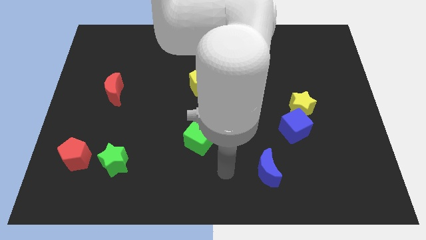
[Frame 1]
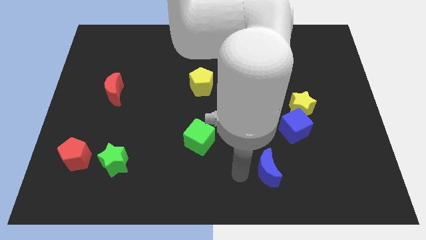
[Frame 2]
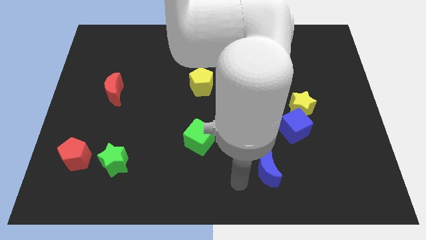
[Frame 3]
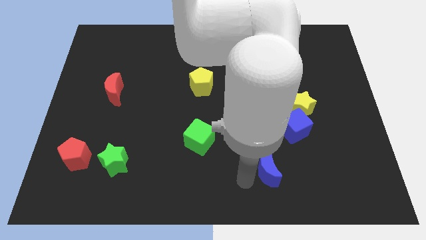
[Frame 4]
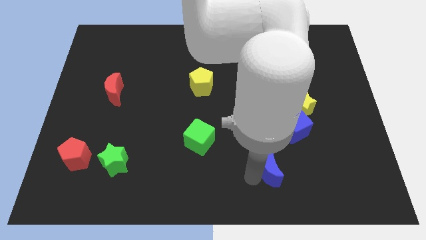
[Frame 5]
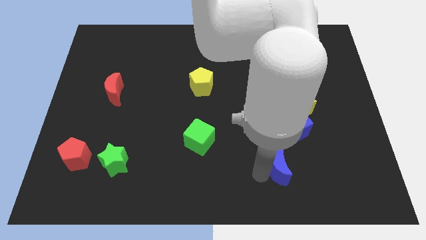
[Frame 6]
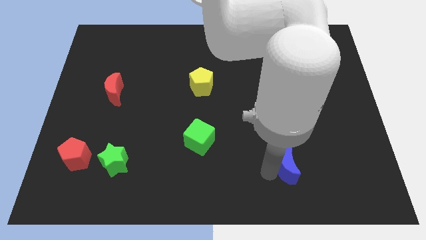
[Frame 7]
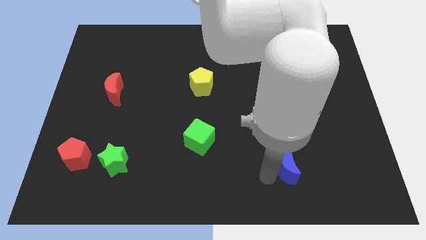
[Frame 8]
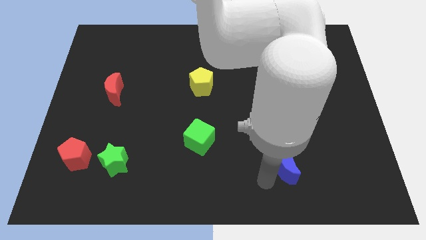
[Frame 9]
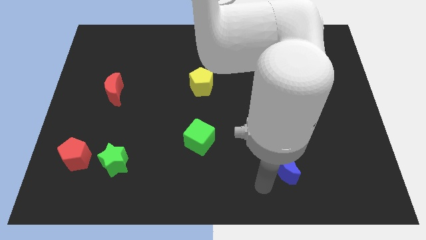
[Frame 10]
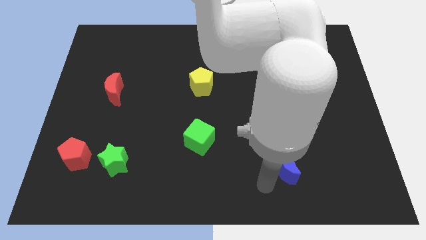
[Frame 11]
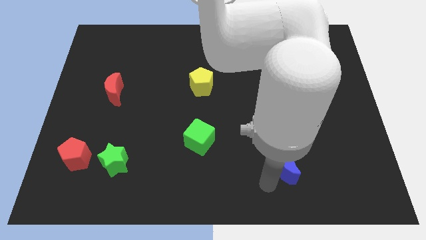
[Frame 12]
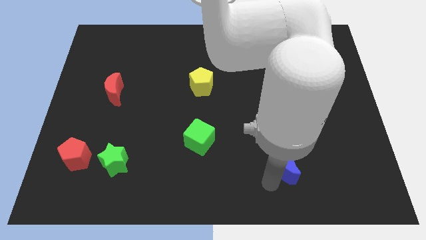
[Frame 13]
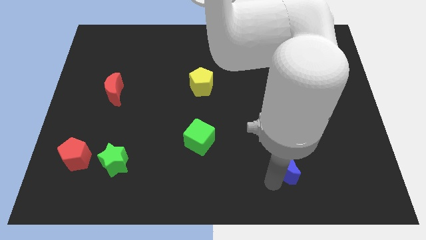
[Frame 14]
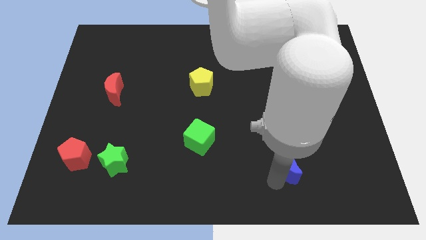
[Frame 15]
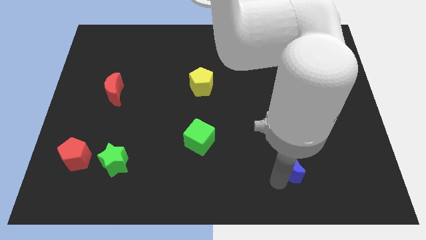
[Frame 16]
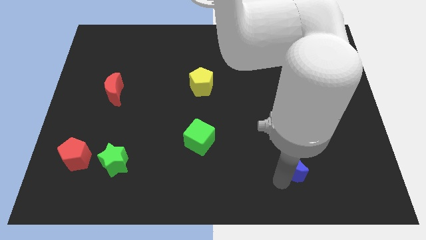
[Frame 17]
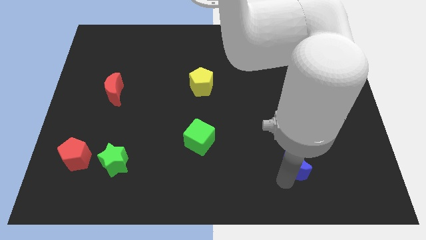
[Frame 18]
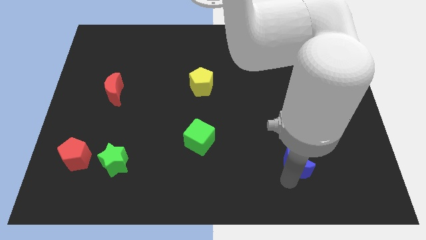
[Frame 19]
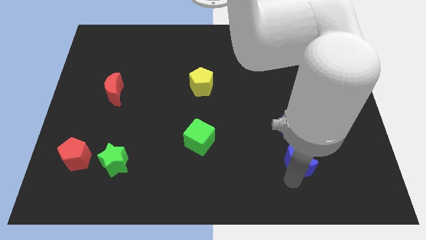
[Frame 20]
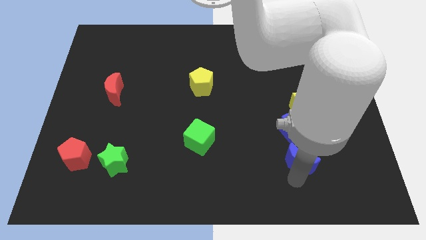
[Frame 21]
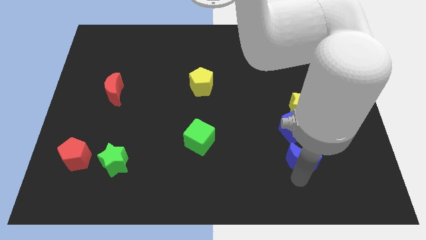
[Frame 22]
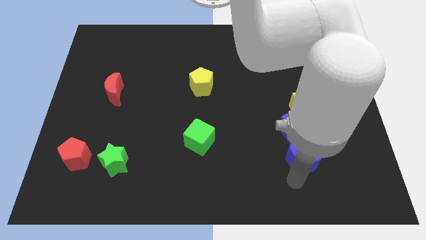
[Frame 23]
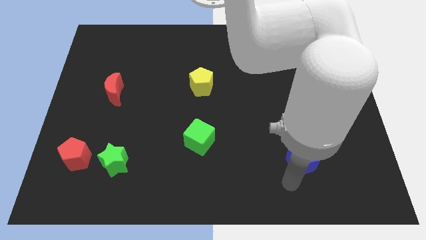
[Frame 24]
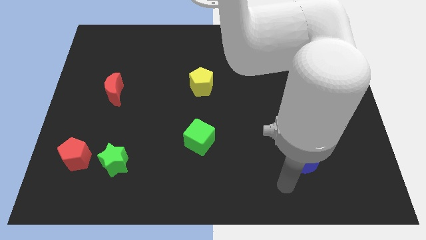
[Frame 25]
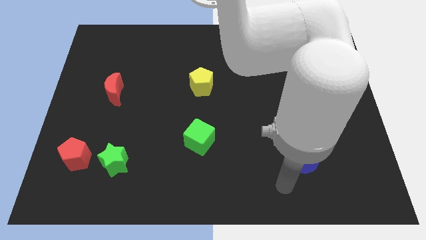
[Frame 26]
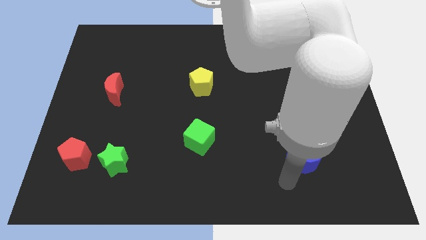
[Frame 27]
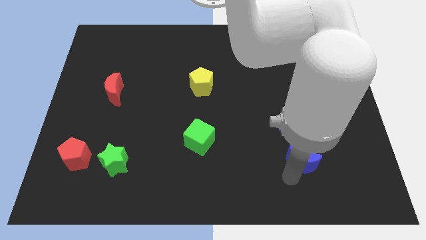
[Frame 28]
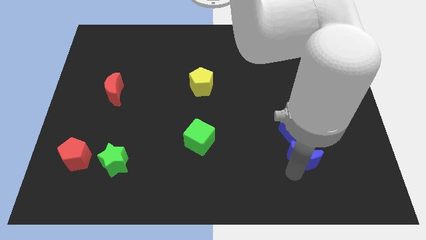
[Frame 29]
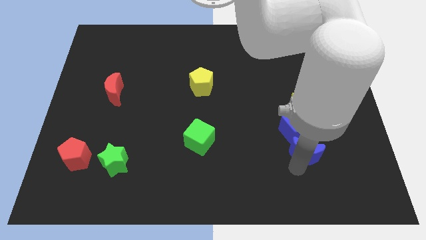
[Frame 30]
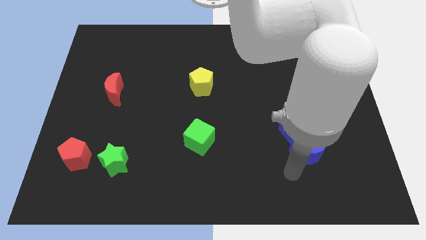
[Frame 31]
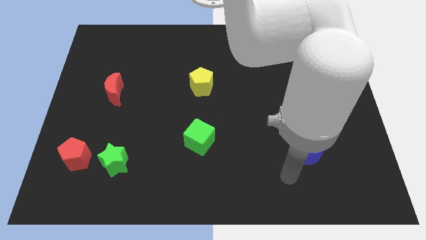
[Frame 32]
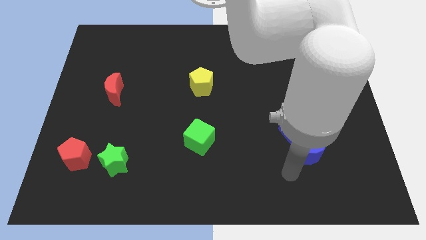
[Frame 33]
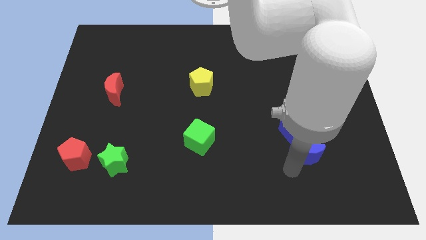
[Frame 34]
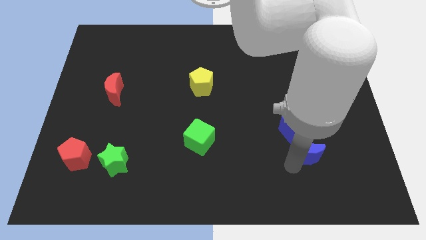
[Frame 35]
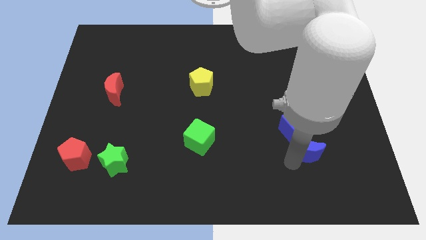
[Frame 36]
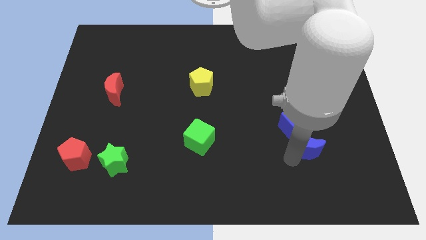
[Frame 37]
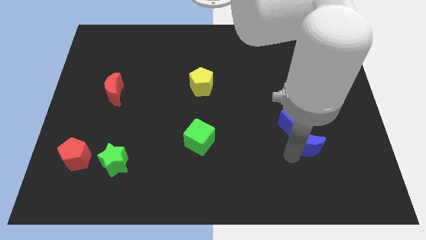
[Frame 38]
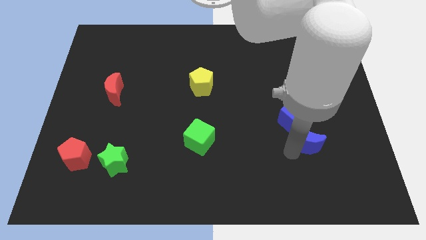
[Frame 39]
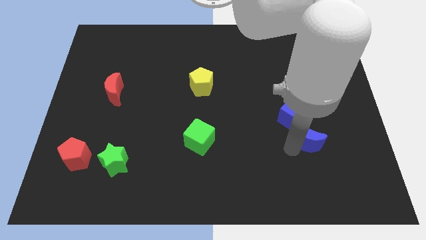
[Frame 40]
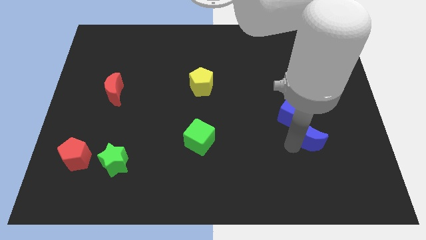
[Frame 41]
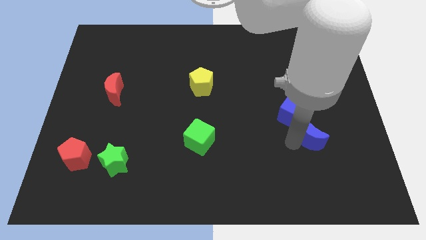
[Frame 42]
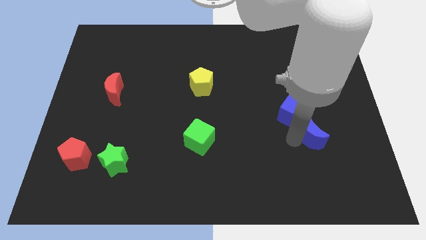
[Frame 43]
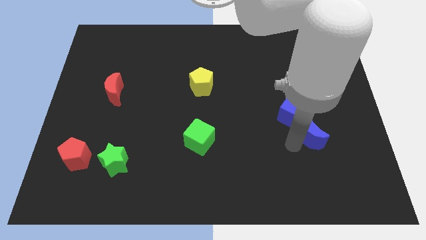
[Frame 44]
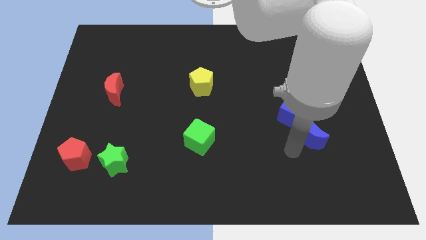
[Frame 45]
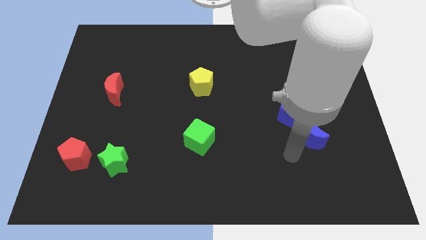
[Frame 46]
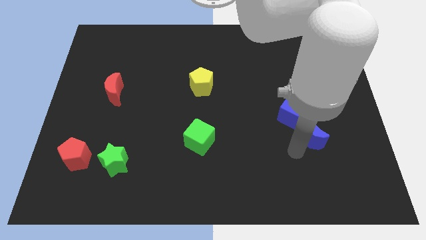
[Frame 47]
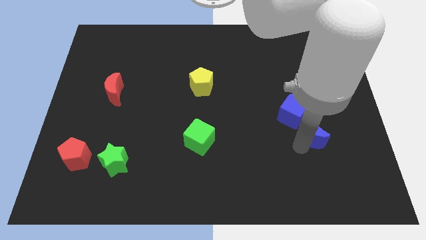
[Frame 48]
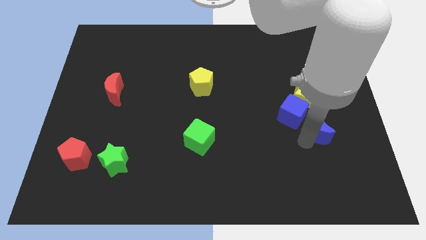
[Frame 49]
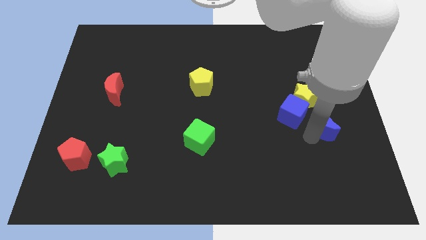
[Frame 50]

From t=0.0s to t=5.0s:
move the blue moon diagonally down and to the right of the yellow star

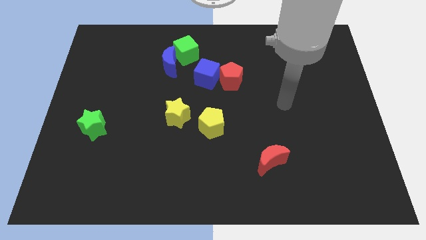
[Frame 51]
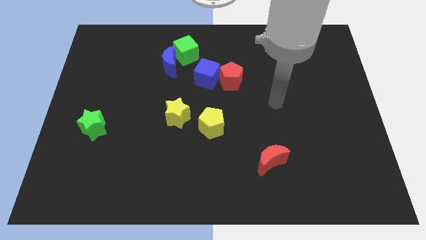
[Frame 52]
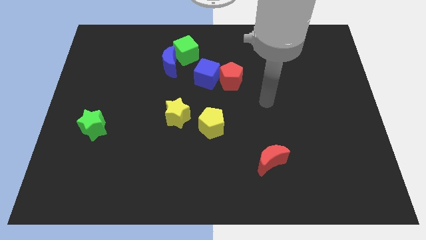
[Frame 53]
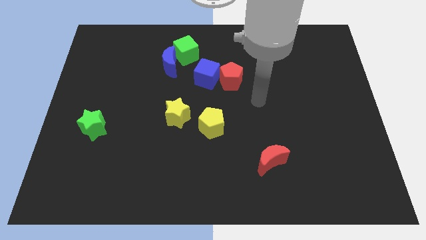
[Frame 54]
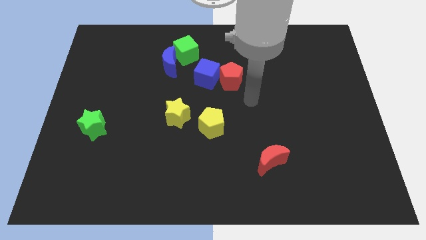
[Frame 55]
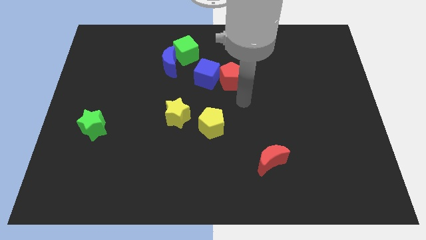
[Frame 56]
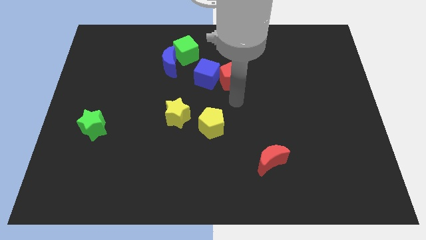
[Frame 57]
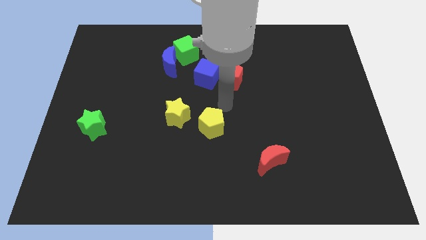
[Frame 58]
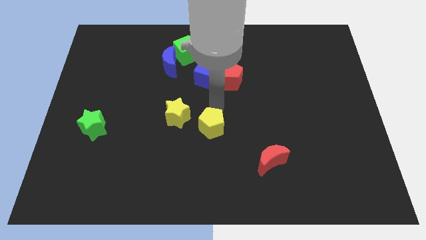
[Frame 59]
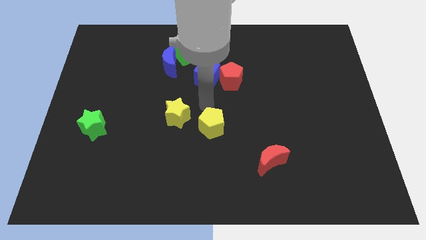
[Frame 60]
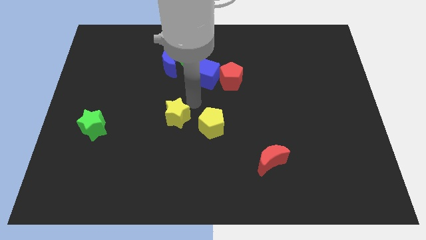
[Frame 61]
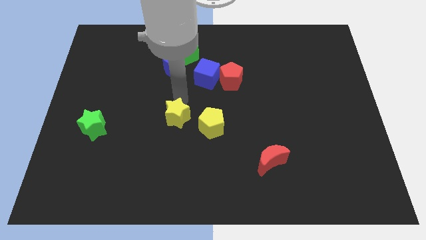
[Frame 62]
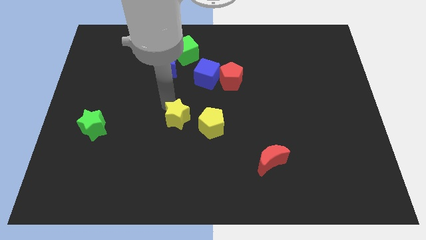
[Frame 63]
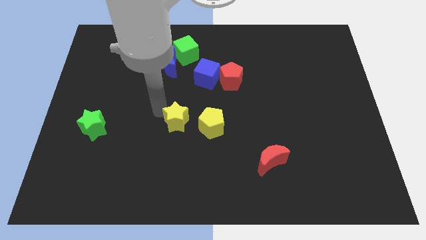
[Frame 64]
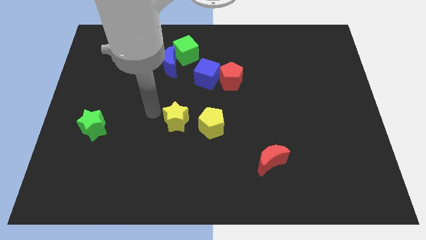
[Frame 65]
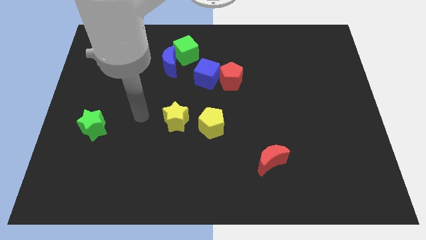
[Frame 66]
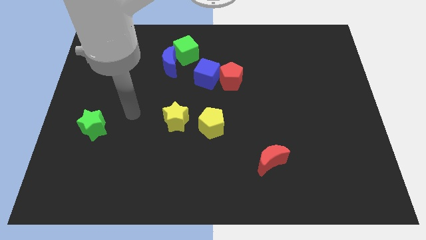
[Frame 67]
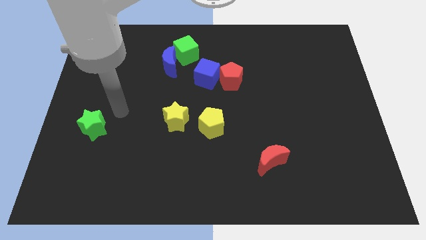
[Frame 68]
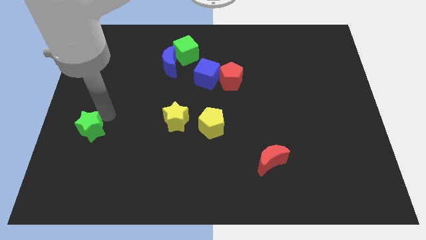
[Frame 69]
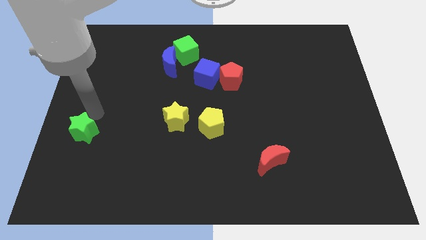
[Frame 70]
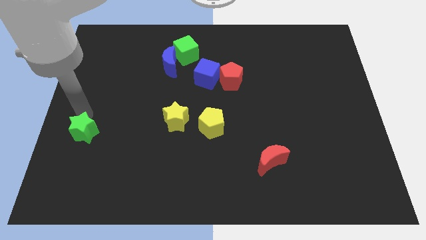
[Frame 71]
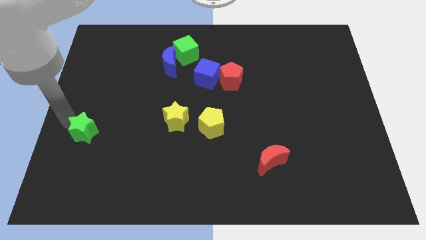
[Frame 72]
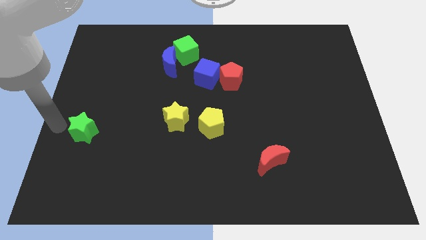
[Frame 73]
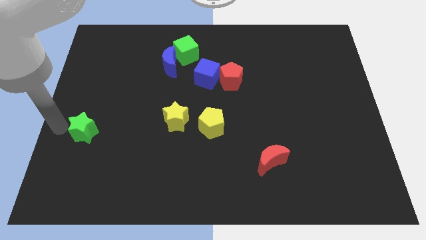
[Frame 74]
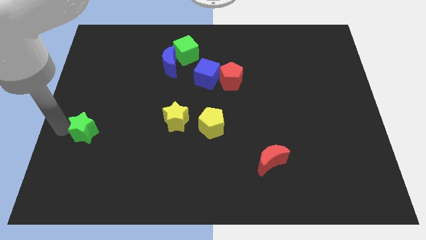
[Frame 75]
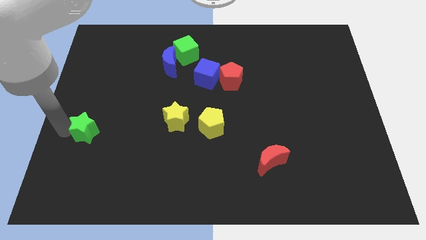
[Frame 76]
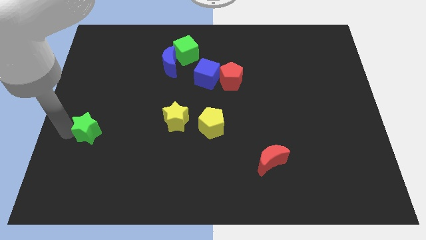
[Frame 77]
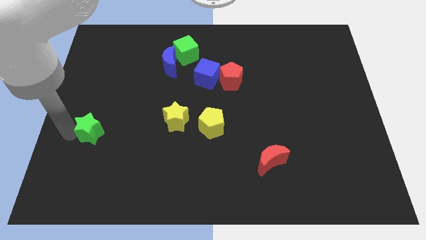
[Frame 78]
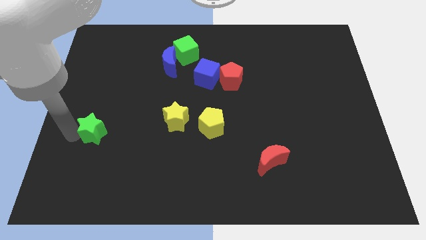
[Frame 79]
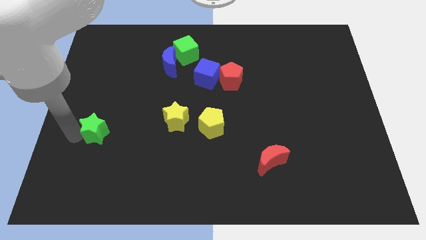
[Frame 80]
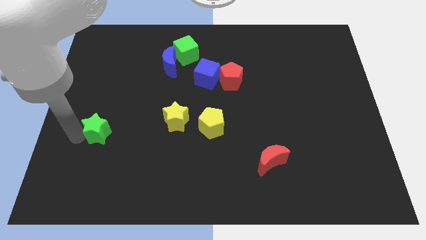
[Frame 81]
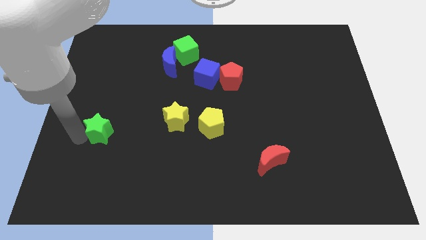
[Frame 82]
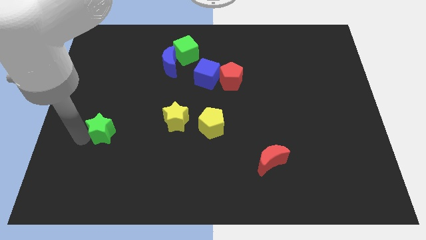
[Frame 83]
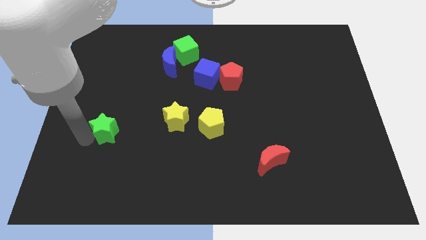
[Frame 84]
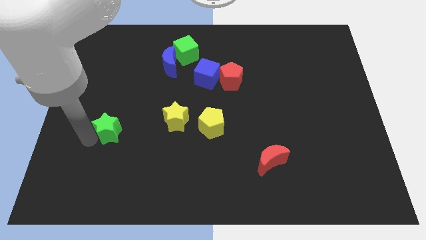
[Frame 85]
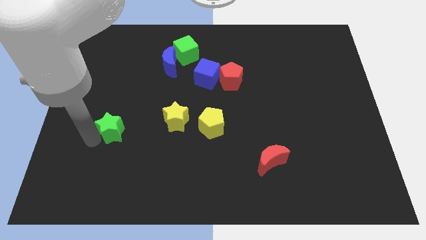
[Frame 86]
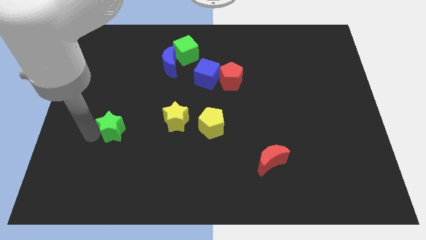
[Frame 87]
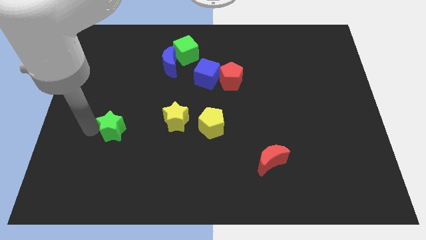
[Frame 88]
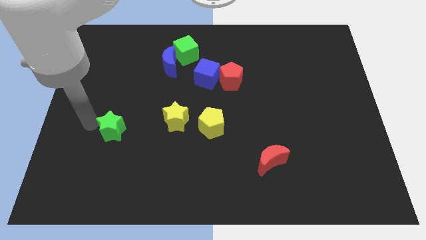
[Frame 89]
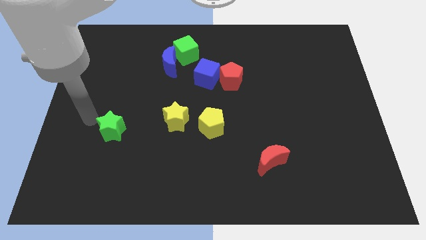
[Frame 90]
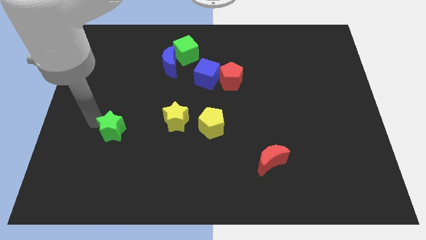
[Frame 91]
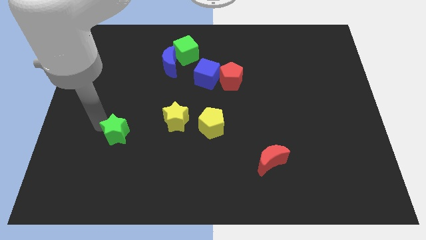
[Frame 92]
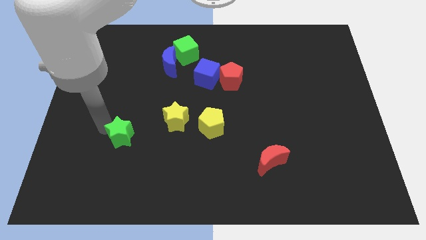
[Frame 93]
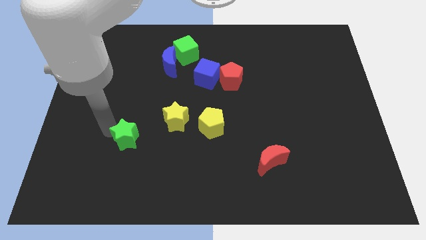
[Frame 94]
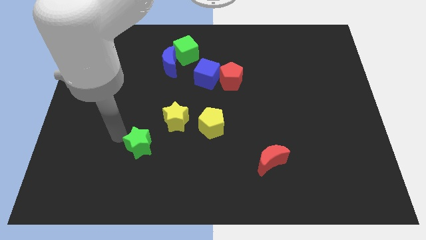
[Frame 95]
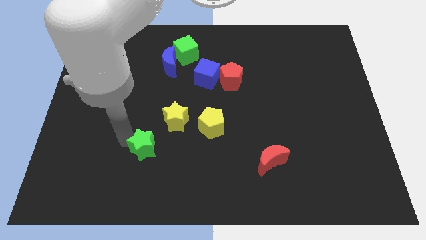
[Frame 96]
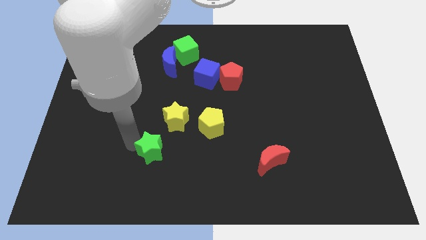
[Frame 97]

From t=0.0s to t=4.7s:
move the green star to the bottom of the yellow star
